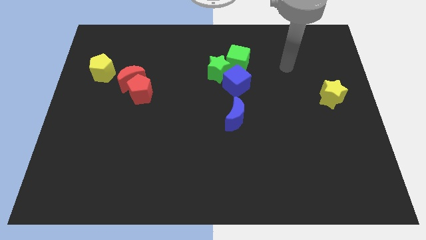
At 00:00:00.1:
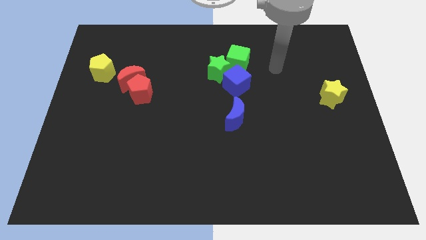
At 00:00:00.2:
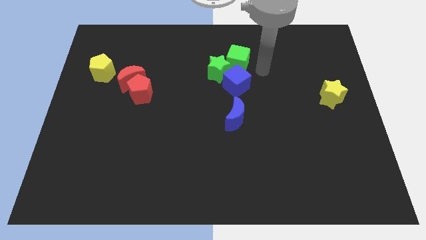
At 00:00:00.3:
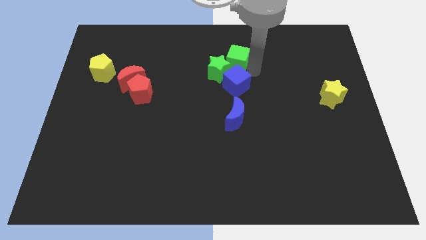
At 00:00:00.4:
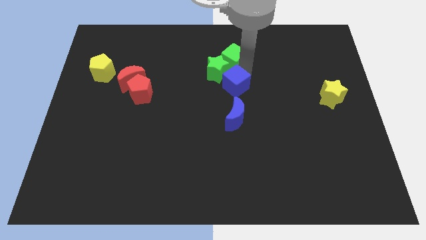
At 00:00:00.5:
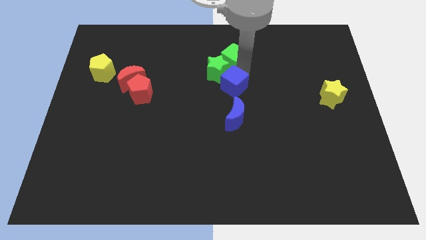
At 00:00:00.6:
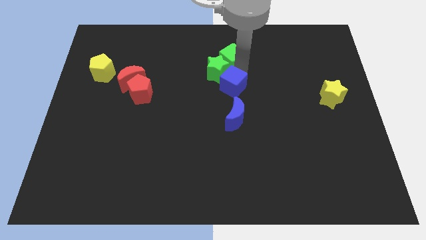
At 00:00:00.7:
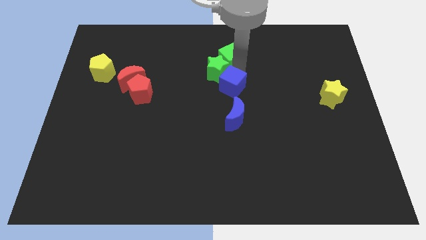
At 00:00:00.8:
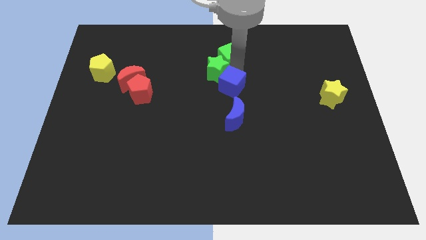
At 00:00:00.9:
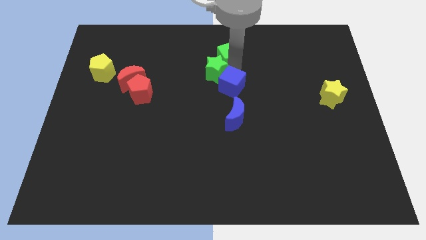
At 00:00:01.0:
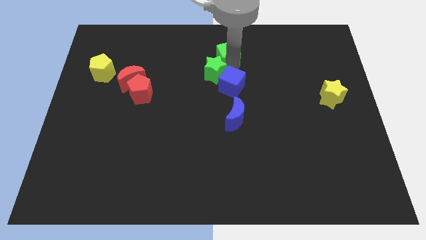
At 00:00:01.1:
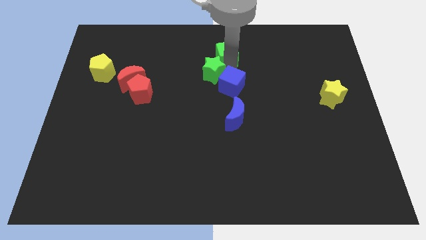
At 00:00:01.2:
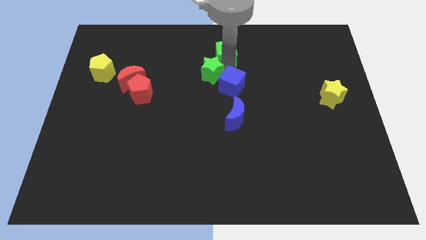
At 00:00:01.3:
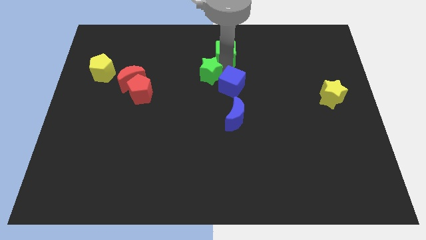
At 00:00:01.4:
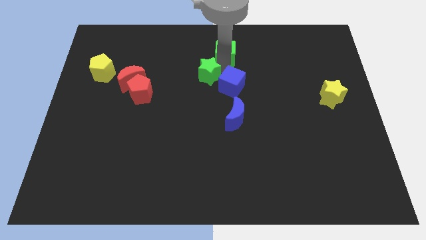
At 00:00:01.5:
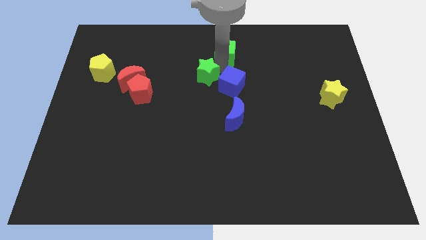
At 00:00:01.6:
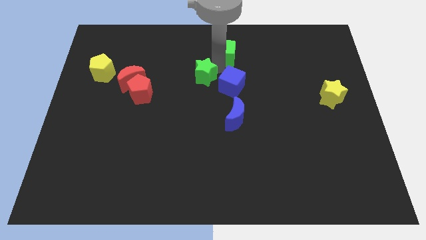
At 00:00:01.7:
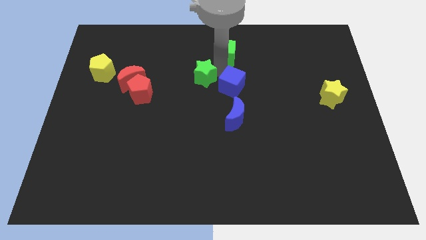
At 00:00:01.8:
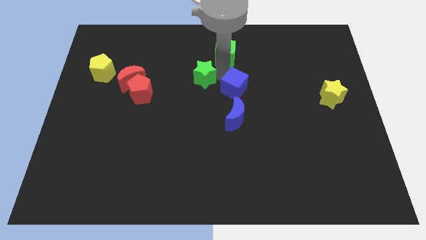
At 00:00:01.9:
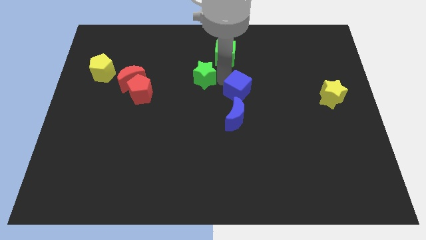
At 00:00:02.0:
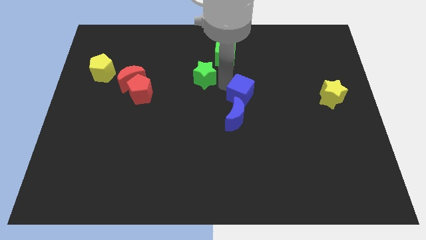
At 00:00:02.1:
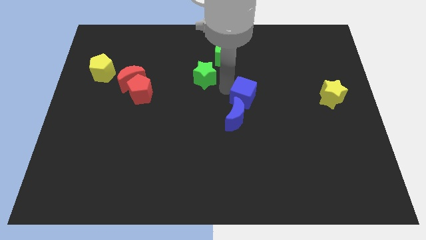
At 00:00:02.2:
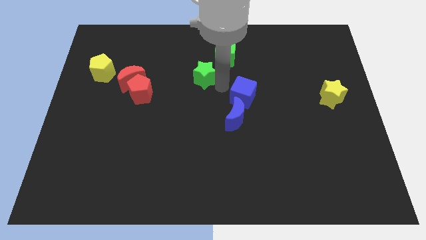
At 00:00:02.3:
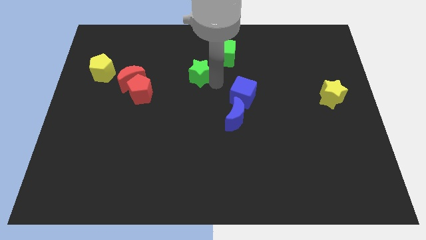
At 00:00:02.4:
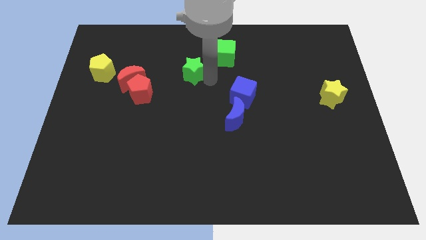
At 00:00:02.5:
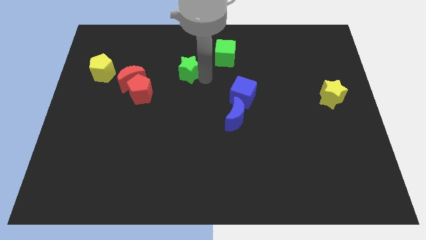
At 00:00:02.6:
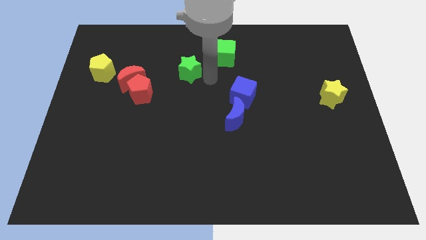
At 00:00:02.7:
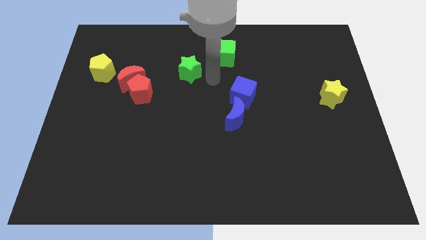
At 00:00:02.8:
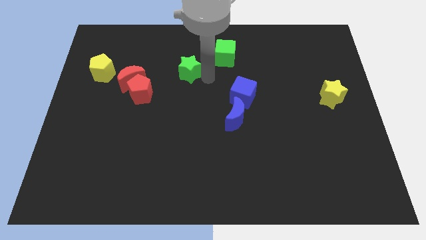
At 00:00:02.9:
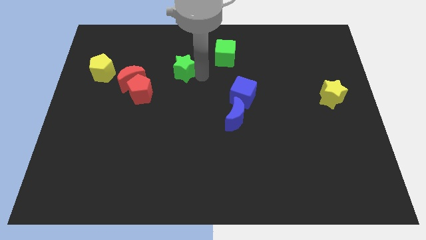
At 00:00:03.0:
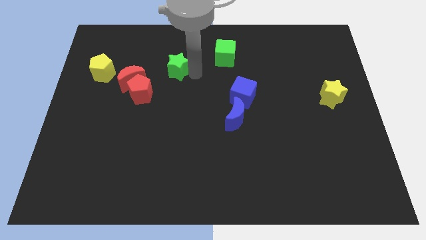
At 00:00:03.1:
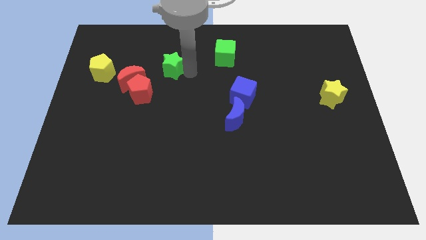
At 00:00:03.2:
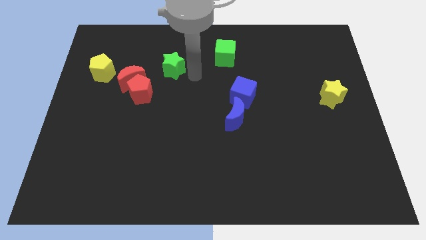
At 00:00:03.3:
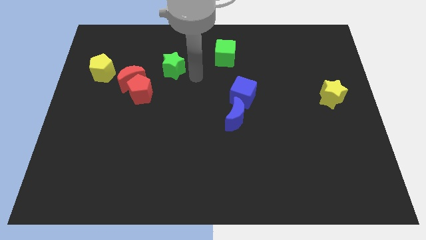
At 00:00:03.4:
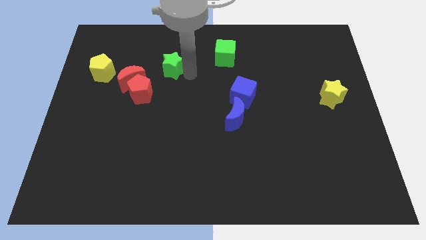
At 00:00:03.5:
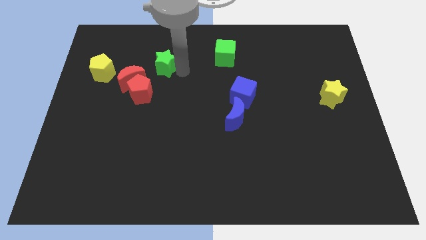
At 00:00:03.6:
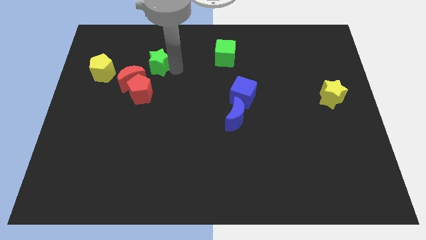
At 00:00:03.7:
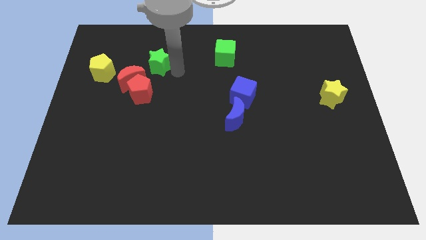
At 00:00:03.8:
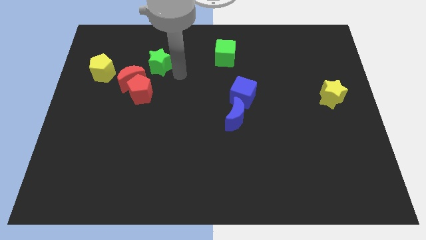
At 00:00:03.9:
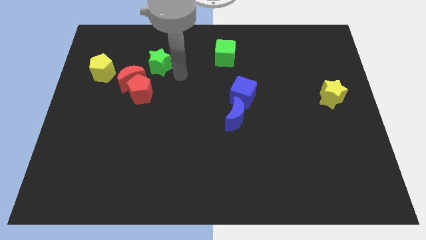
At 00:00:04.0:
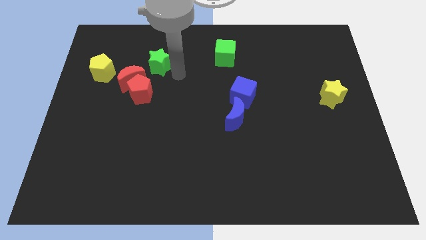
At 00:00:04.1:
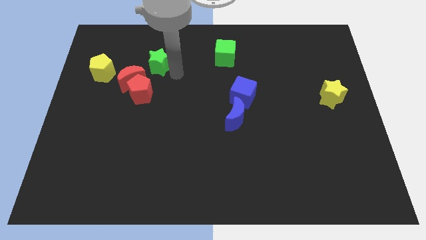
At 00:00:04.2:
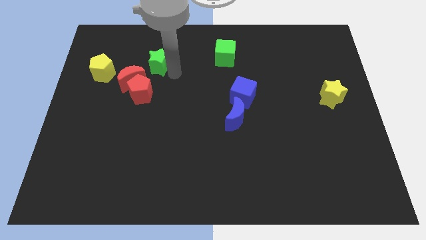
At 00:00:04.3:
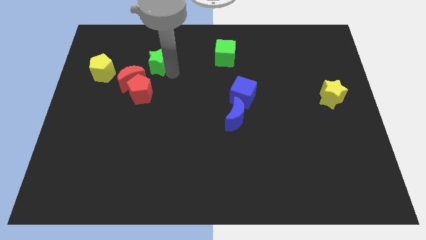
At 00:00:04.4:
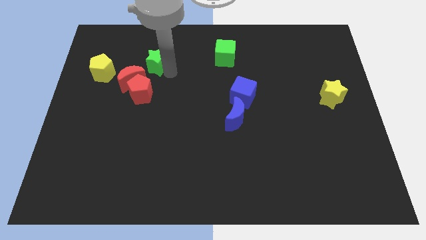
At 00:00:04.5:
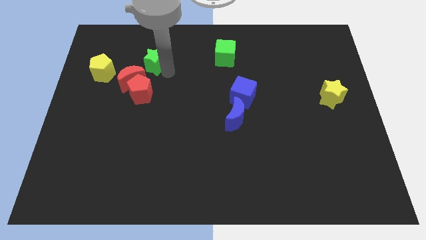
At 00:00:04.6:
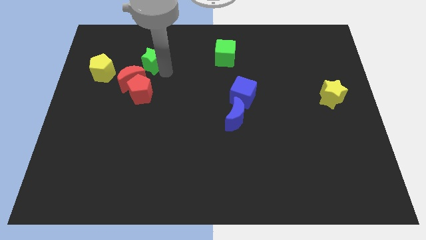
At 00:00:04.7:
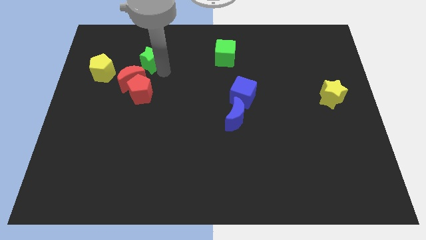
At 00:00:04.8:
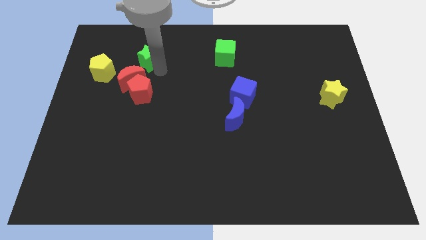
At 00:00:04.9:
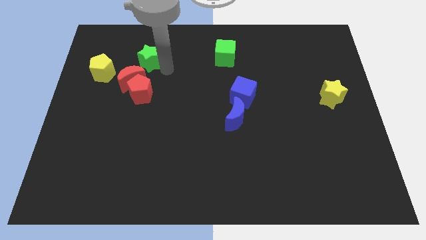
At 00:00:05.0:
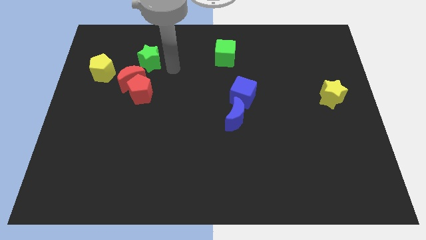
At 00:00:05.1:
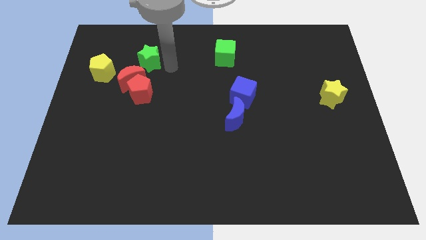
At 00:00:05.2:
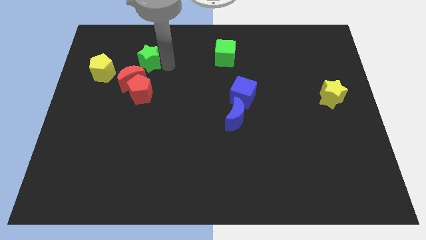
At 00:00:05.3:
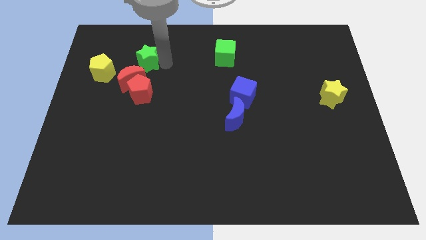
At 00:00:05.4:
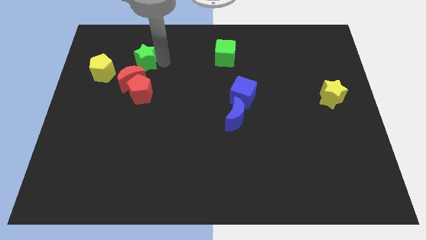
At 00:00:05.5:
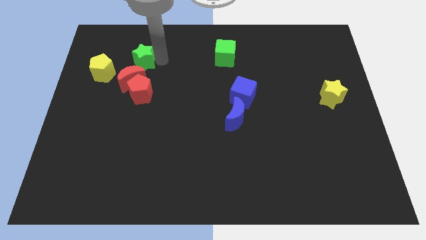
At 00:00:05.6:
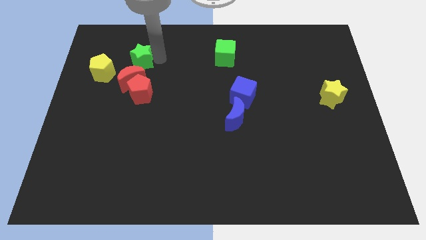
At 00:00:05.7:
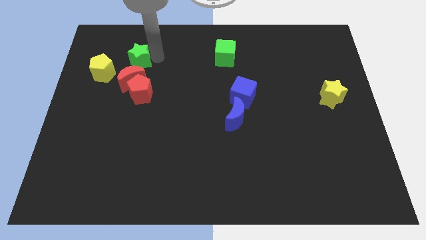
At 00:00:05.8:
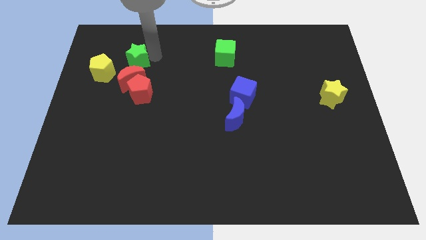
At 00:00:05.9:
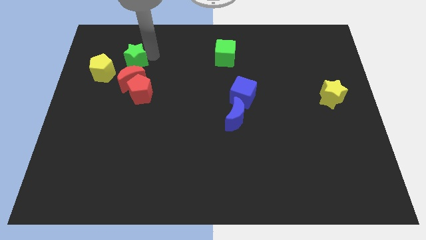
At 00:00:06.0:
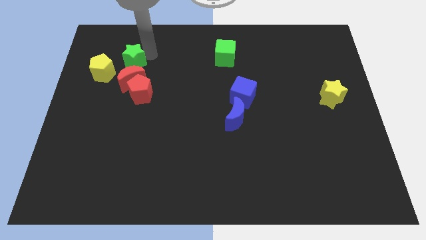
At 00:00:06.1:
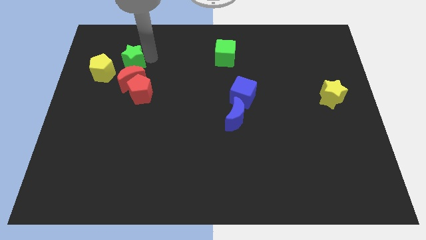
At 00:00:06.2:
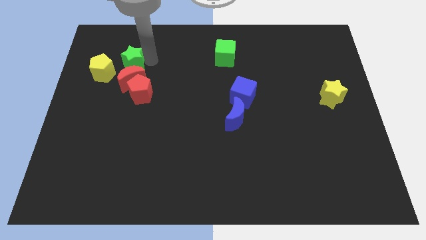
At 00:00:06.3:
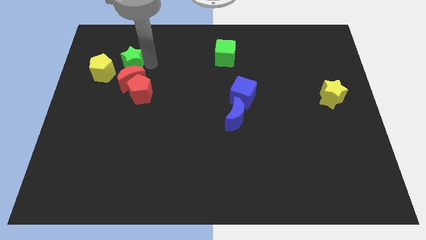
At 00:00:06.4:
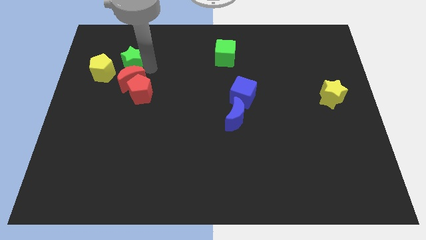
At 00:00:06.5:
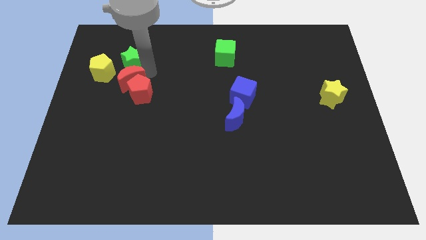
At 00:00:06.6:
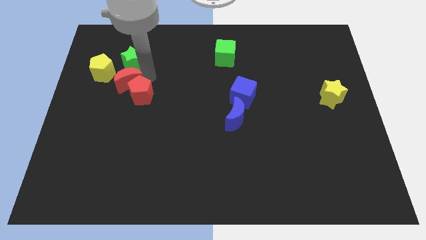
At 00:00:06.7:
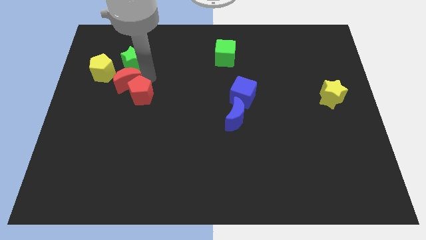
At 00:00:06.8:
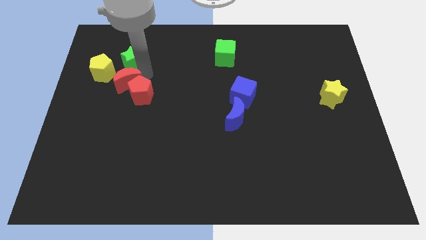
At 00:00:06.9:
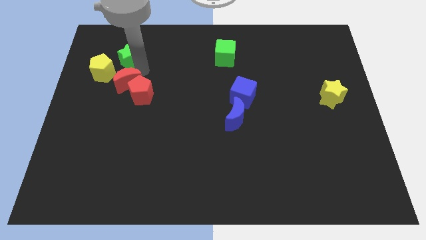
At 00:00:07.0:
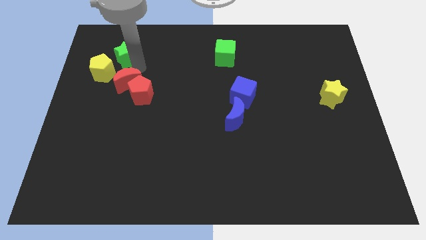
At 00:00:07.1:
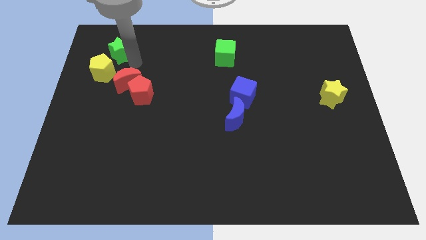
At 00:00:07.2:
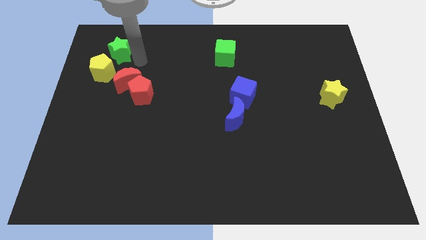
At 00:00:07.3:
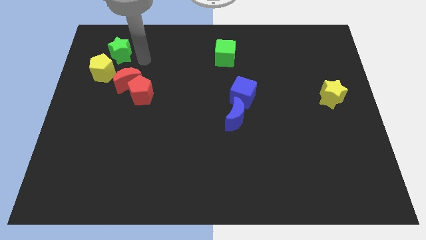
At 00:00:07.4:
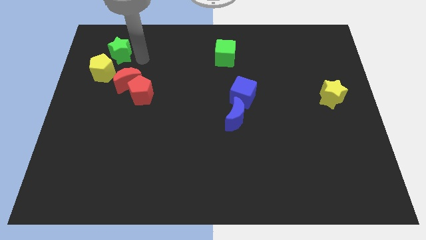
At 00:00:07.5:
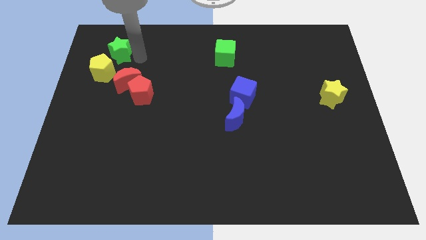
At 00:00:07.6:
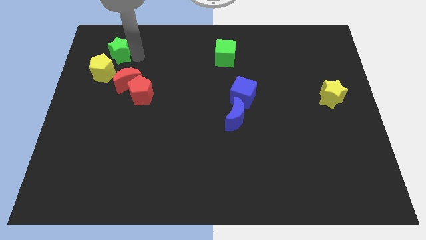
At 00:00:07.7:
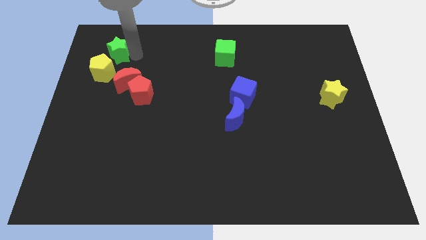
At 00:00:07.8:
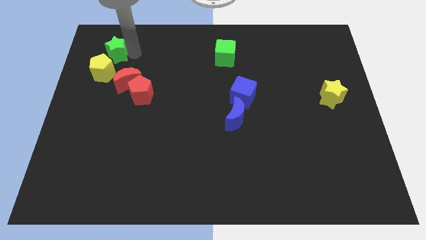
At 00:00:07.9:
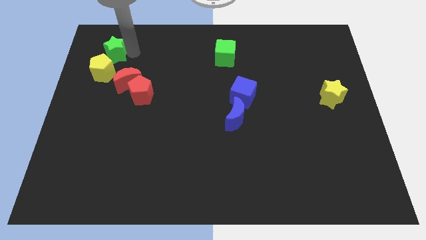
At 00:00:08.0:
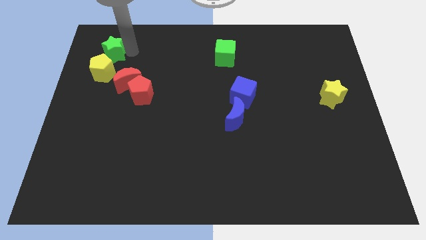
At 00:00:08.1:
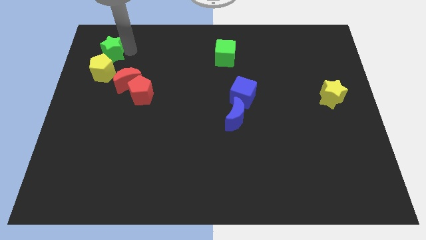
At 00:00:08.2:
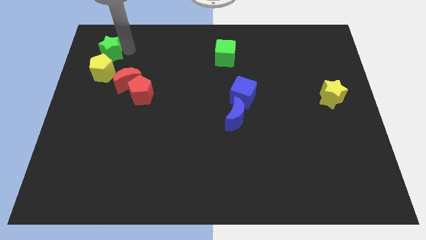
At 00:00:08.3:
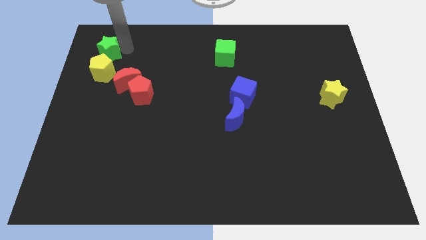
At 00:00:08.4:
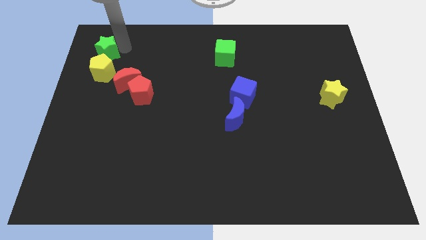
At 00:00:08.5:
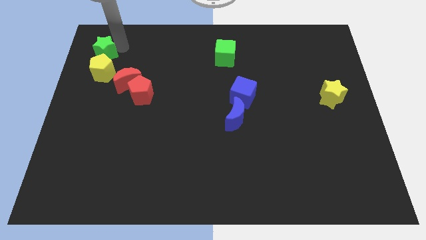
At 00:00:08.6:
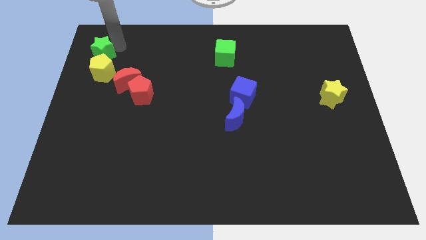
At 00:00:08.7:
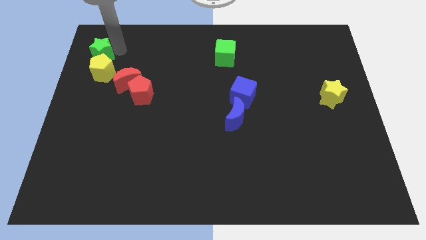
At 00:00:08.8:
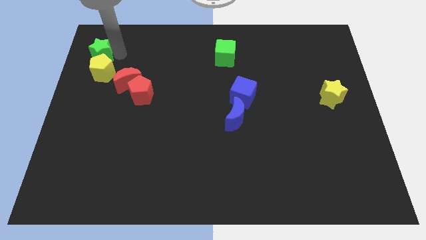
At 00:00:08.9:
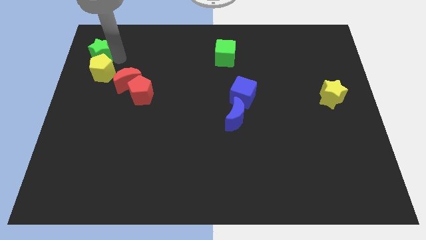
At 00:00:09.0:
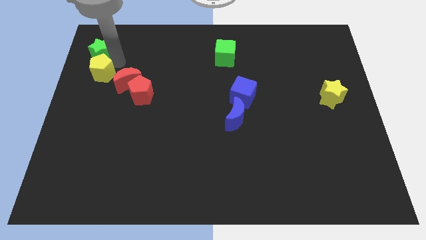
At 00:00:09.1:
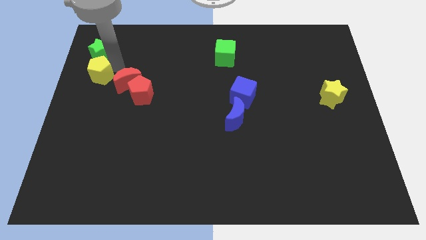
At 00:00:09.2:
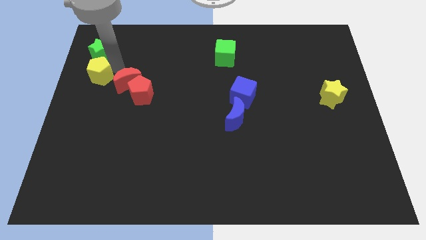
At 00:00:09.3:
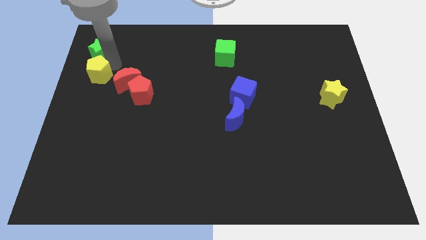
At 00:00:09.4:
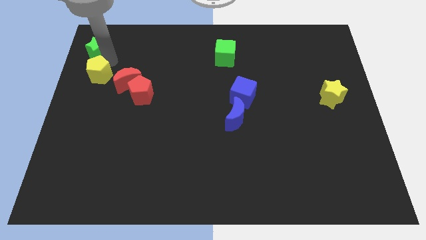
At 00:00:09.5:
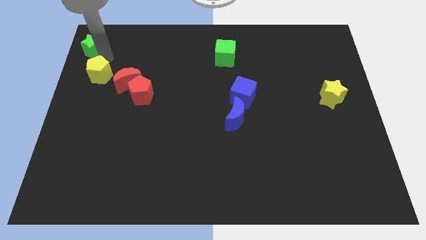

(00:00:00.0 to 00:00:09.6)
push the green star to the top left
